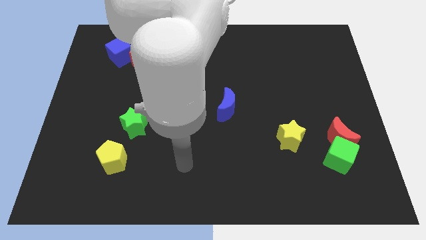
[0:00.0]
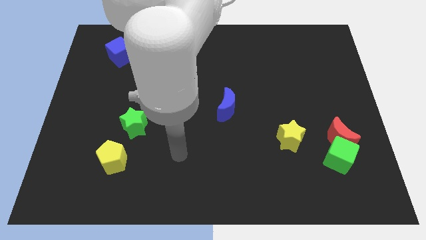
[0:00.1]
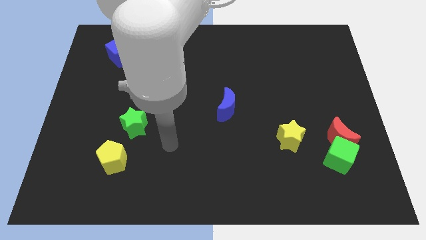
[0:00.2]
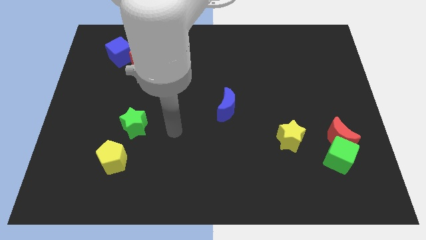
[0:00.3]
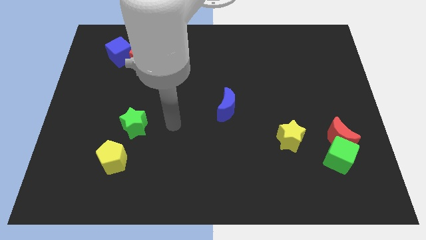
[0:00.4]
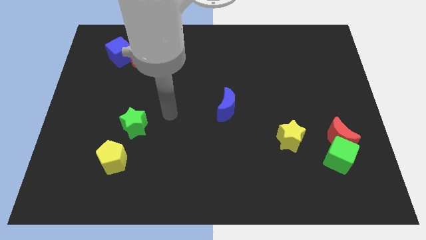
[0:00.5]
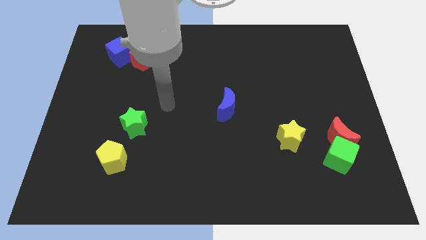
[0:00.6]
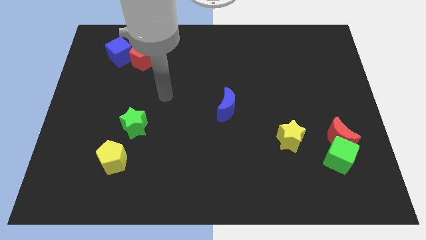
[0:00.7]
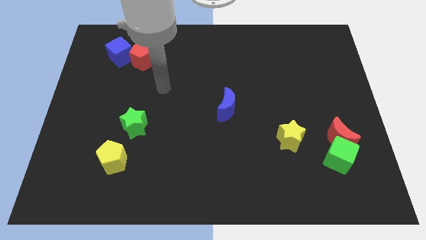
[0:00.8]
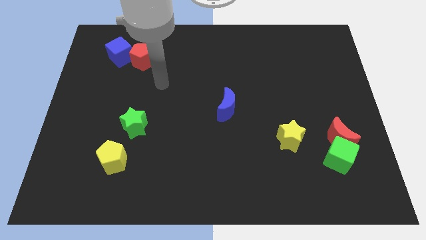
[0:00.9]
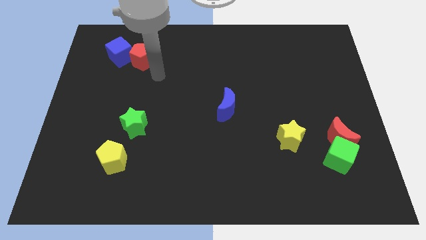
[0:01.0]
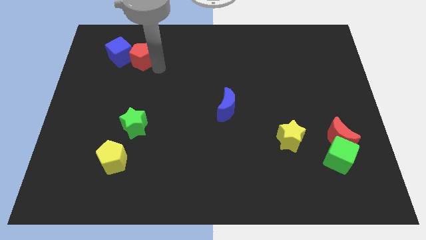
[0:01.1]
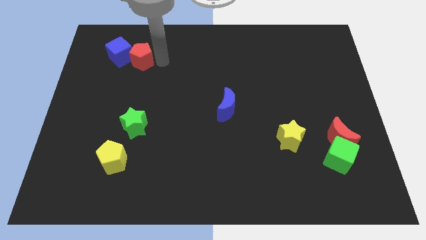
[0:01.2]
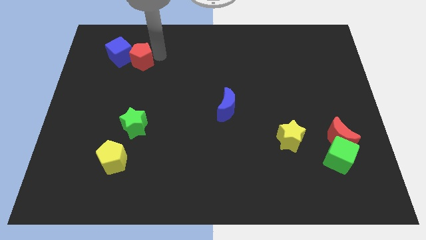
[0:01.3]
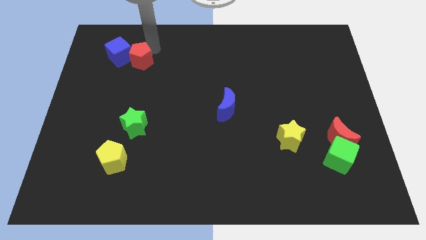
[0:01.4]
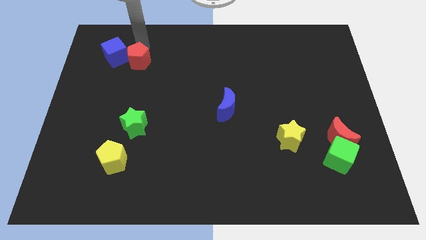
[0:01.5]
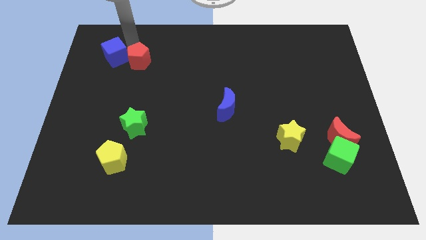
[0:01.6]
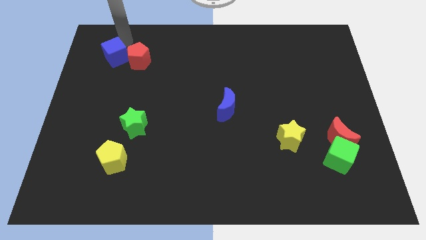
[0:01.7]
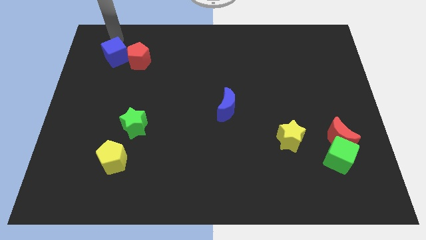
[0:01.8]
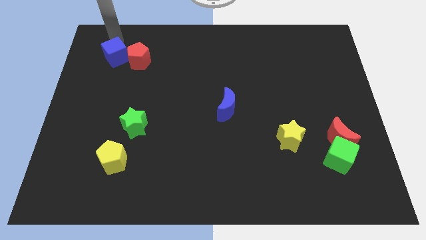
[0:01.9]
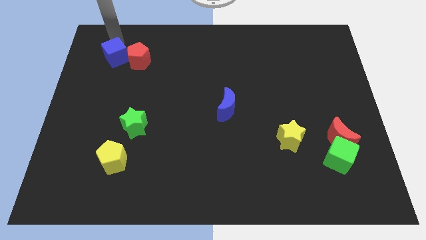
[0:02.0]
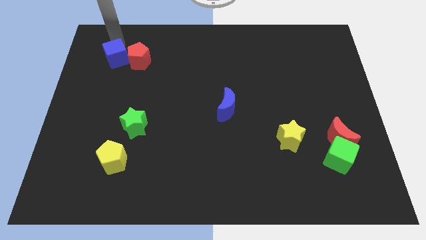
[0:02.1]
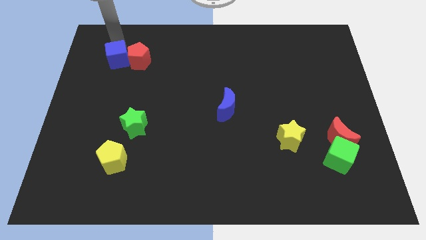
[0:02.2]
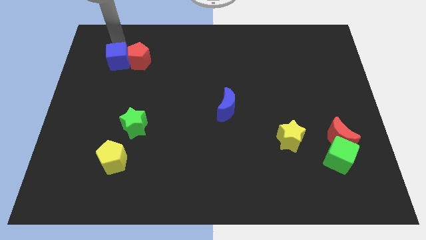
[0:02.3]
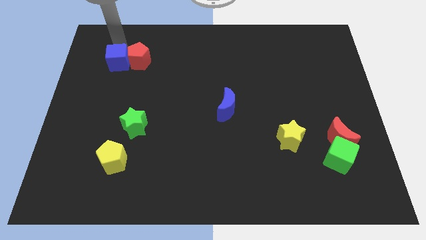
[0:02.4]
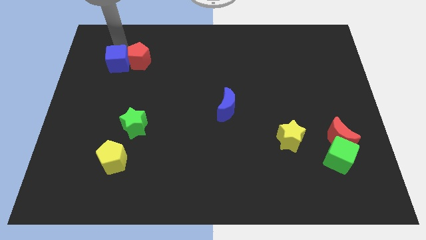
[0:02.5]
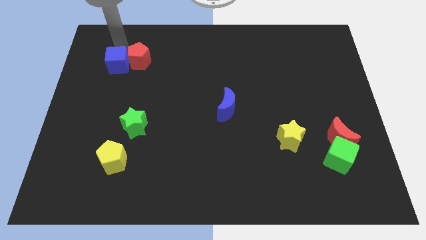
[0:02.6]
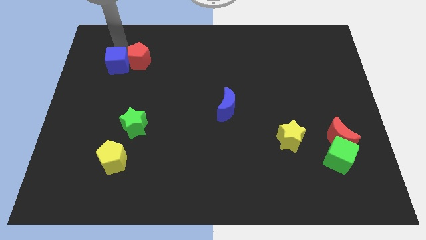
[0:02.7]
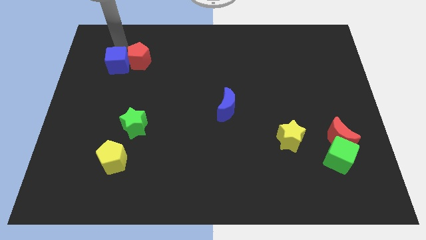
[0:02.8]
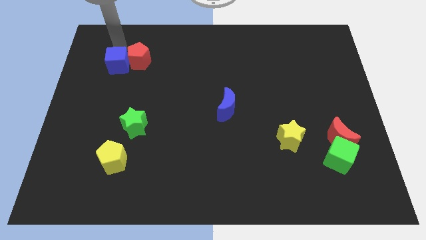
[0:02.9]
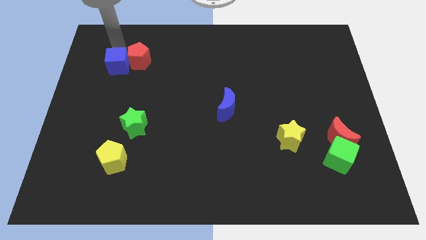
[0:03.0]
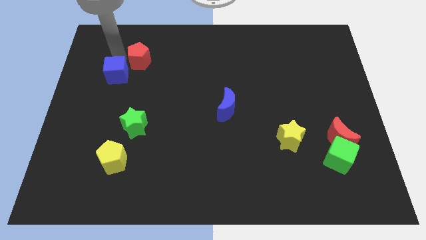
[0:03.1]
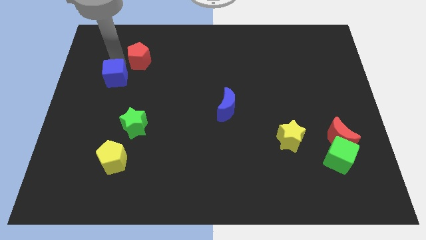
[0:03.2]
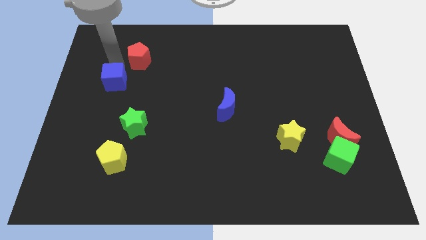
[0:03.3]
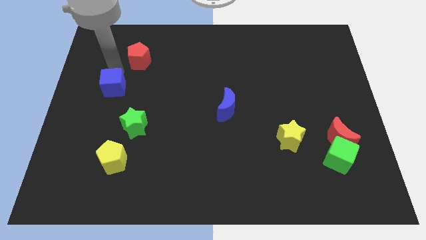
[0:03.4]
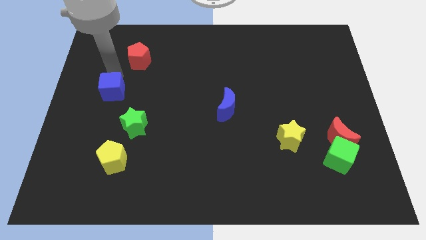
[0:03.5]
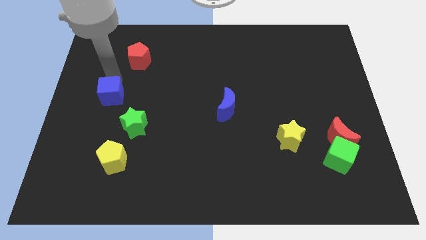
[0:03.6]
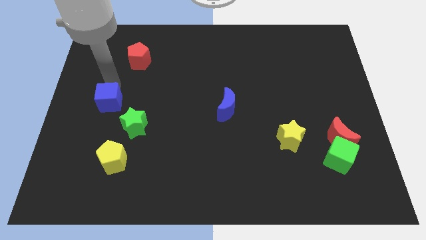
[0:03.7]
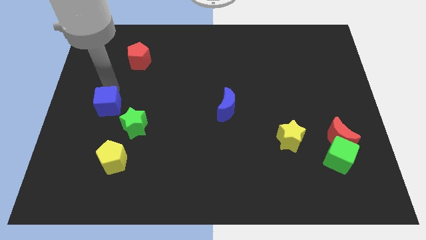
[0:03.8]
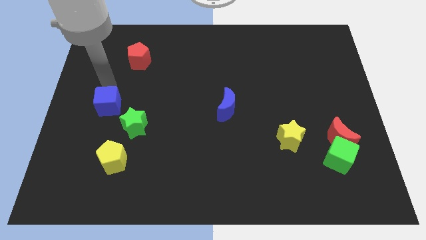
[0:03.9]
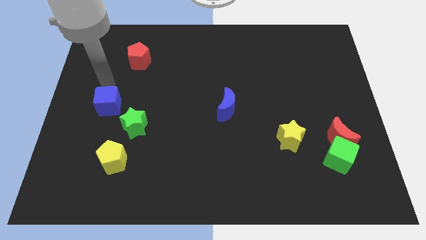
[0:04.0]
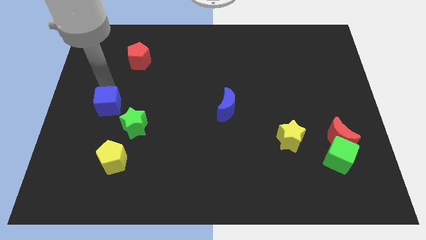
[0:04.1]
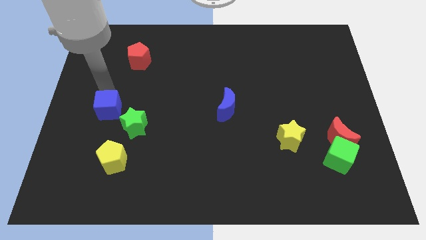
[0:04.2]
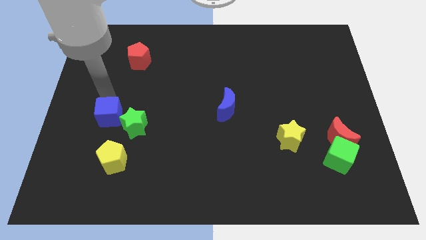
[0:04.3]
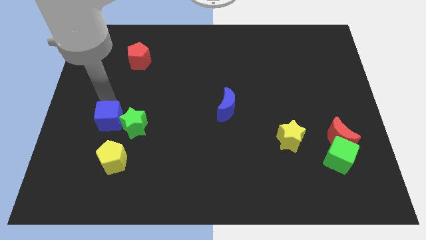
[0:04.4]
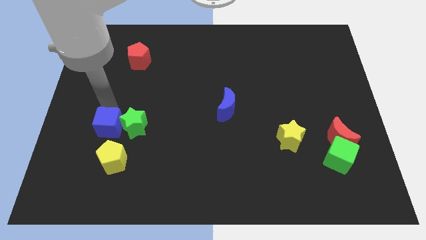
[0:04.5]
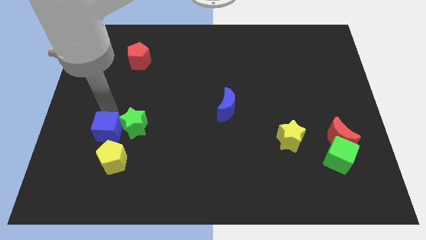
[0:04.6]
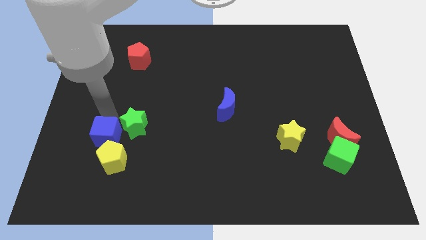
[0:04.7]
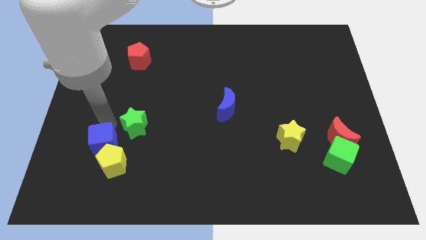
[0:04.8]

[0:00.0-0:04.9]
put the blue cube next to the yellow pentagon

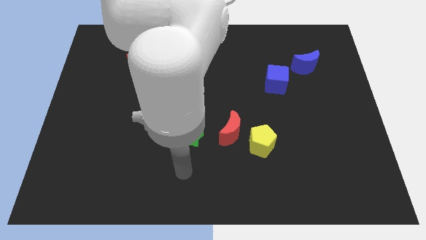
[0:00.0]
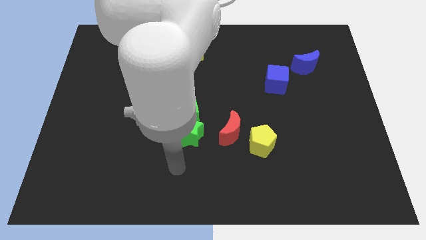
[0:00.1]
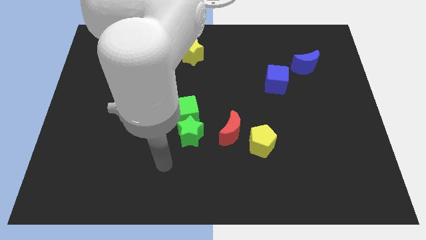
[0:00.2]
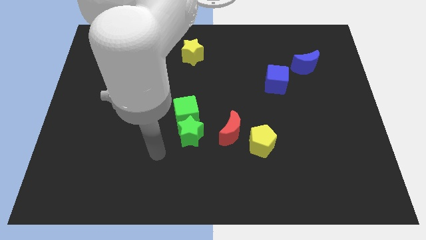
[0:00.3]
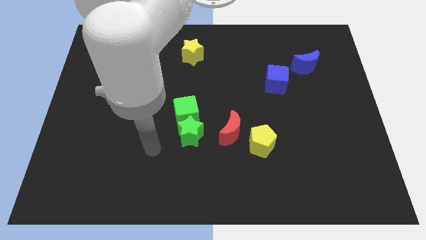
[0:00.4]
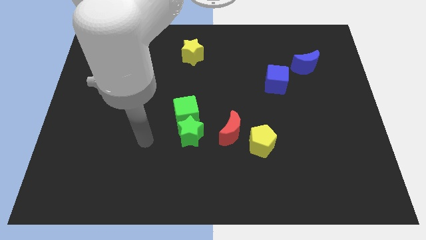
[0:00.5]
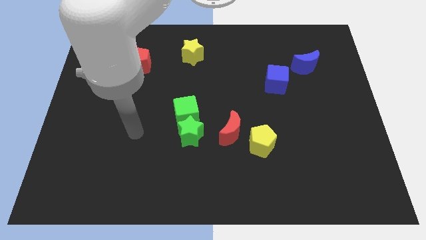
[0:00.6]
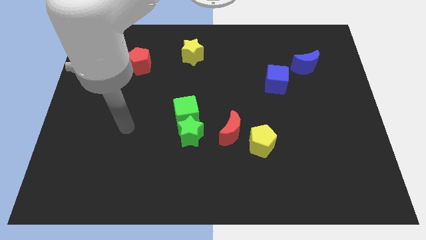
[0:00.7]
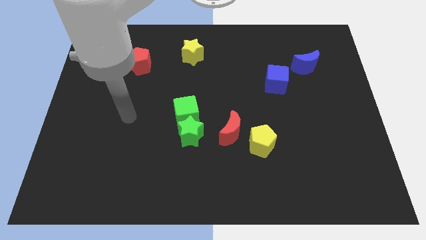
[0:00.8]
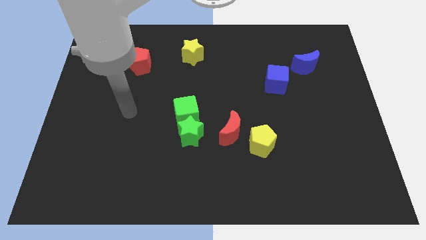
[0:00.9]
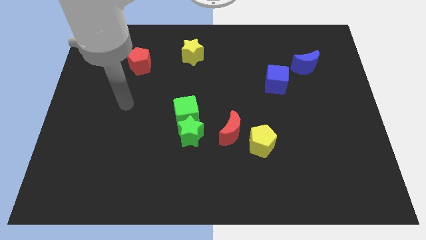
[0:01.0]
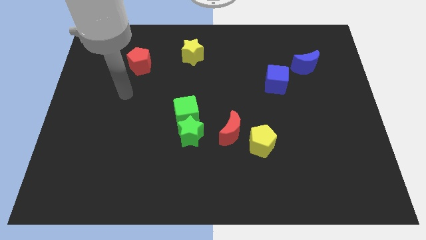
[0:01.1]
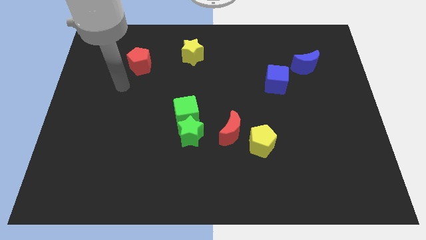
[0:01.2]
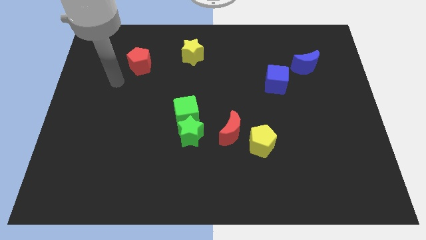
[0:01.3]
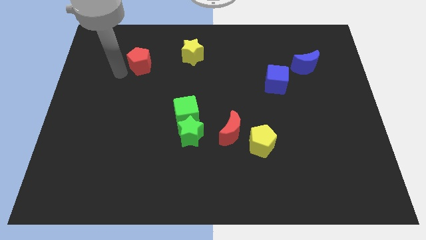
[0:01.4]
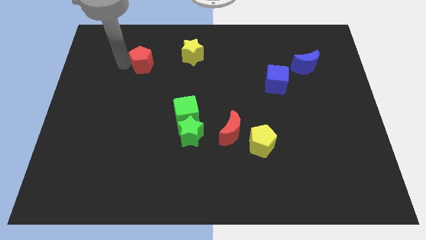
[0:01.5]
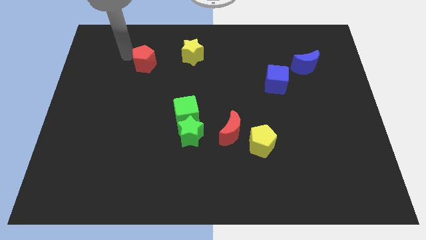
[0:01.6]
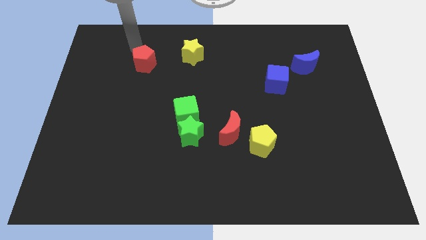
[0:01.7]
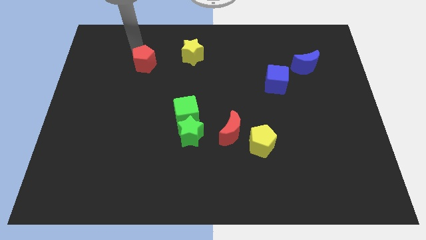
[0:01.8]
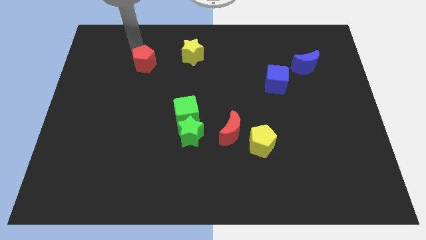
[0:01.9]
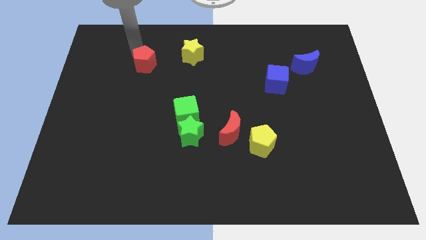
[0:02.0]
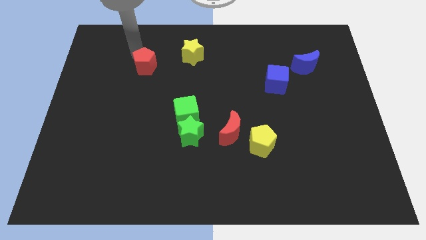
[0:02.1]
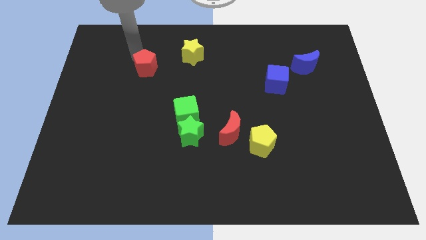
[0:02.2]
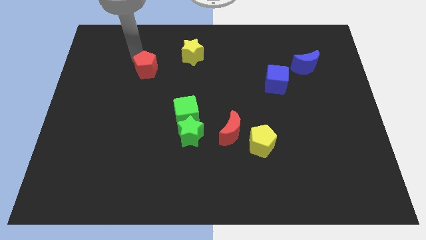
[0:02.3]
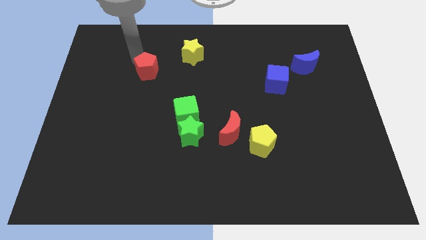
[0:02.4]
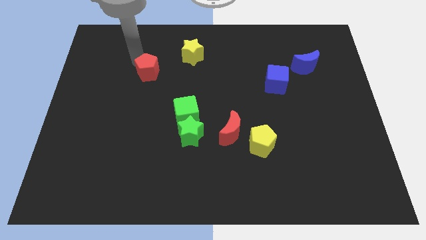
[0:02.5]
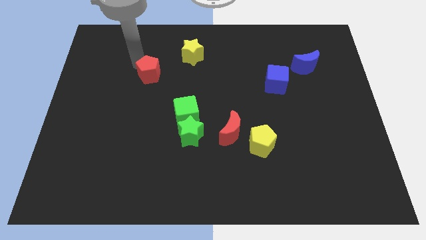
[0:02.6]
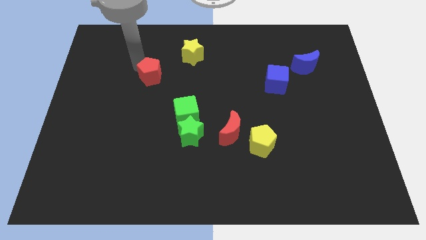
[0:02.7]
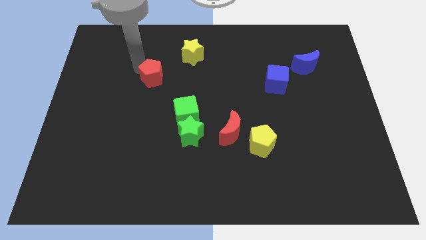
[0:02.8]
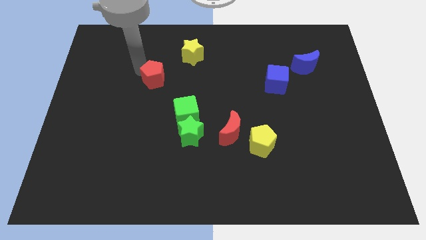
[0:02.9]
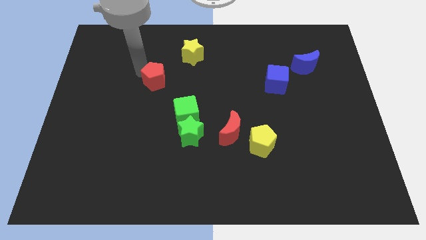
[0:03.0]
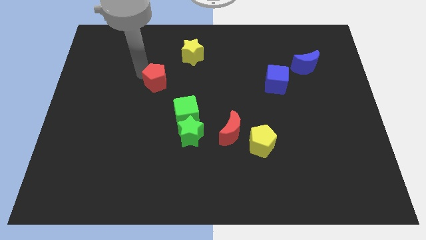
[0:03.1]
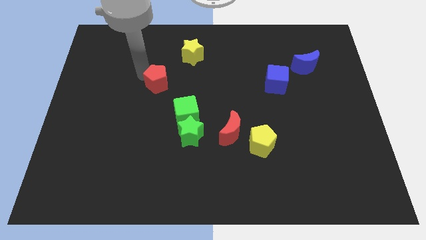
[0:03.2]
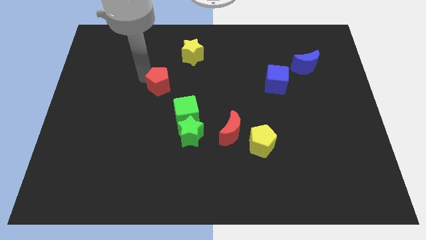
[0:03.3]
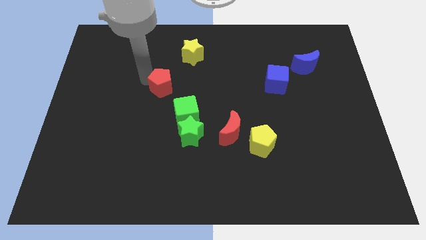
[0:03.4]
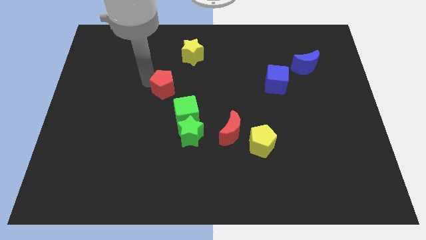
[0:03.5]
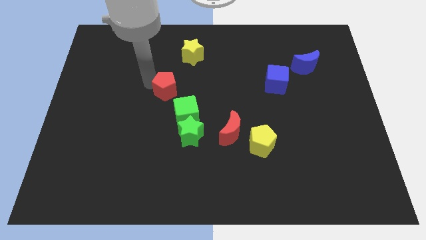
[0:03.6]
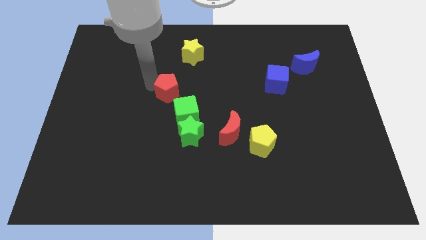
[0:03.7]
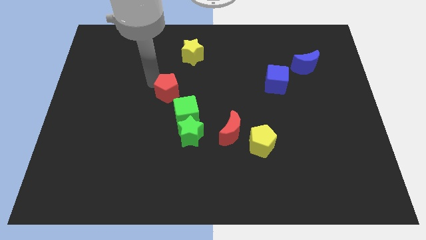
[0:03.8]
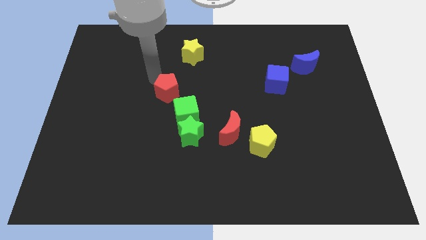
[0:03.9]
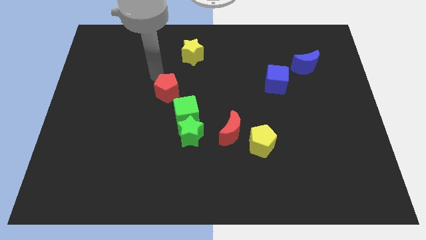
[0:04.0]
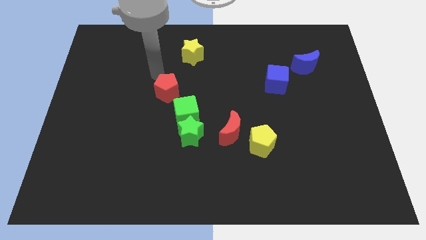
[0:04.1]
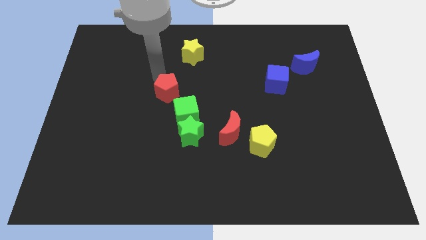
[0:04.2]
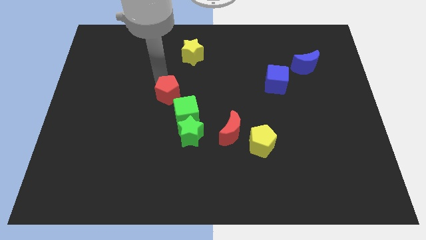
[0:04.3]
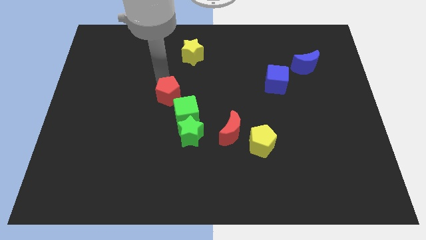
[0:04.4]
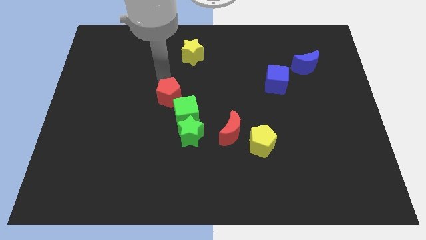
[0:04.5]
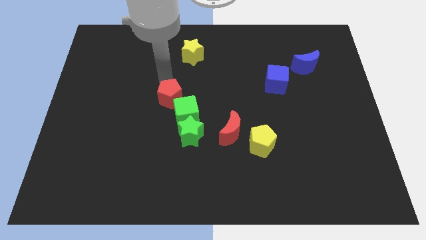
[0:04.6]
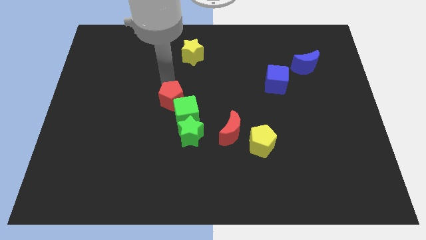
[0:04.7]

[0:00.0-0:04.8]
slide the red pentagon towards the green cube
